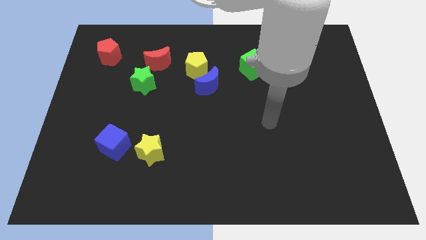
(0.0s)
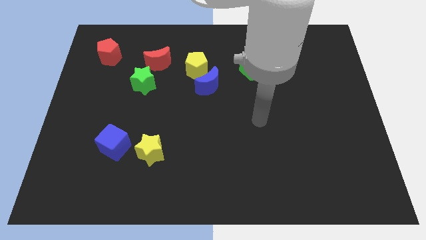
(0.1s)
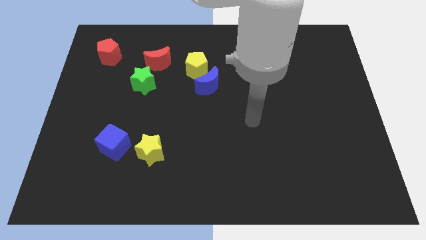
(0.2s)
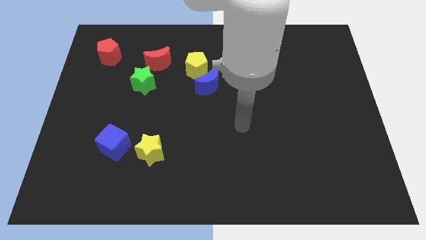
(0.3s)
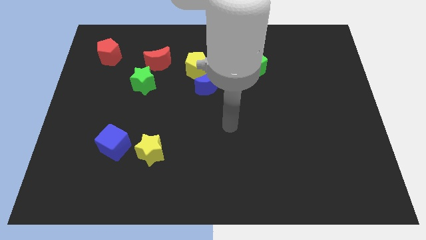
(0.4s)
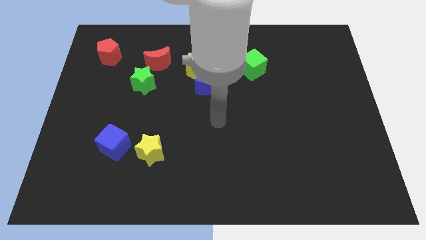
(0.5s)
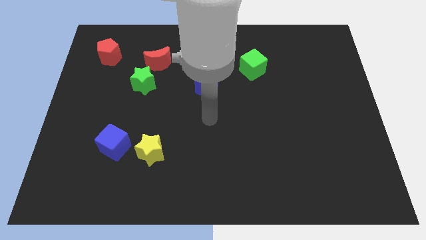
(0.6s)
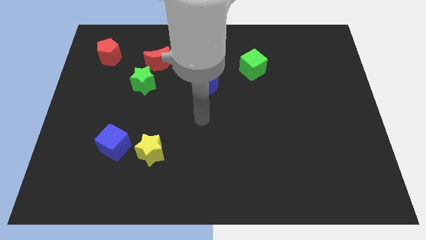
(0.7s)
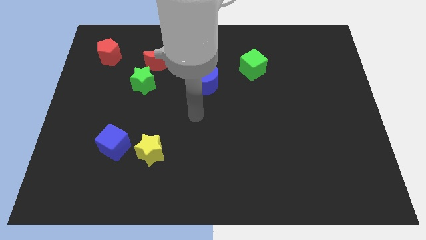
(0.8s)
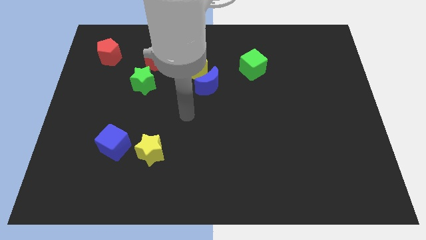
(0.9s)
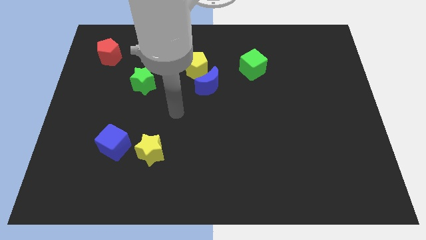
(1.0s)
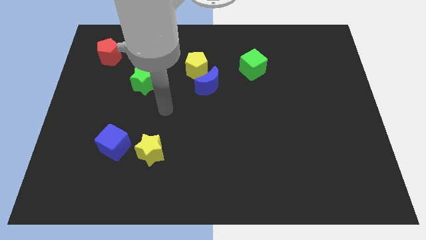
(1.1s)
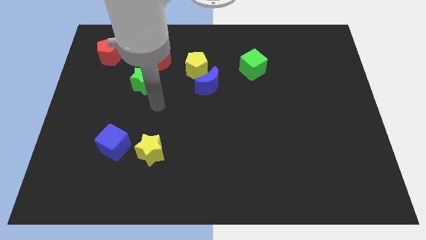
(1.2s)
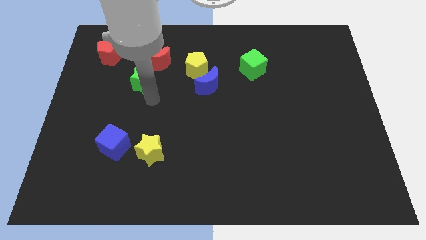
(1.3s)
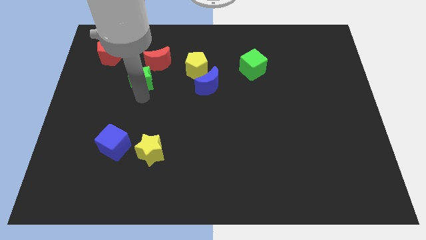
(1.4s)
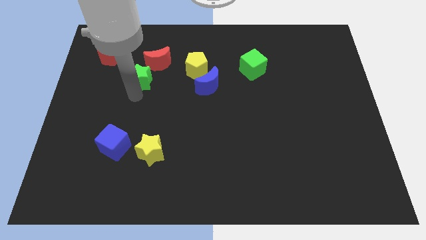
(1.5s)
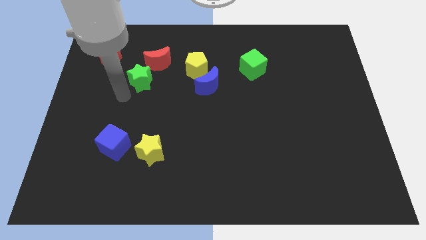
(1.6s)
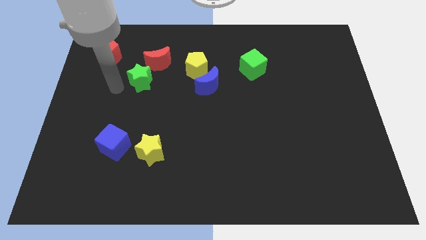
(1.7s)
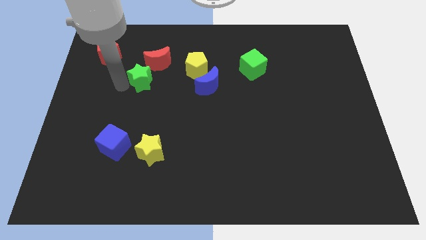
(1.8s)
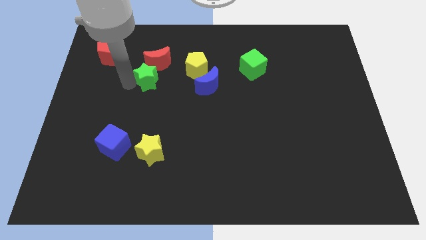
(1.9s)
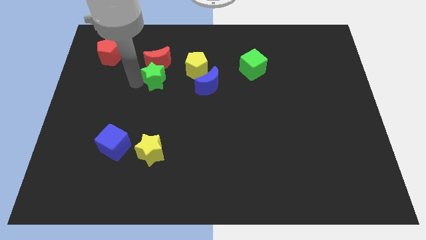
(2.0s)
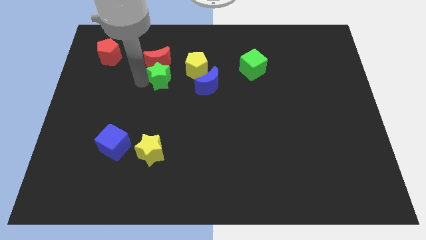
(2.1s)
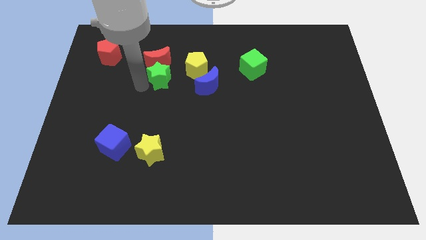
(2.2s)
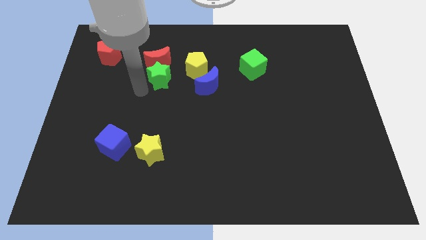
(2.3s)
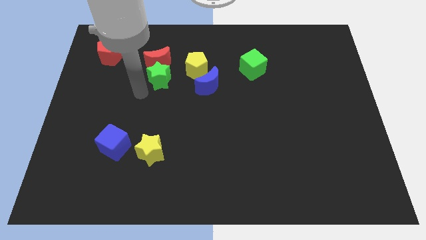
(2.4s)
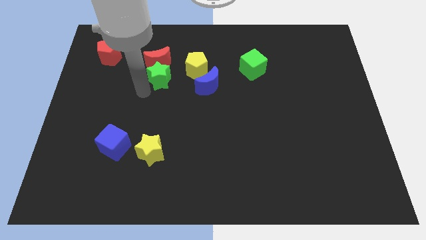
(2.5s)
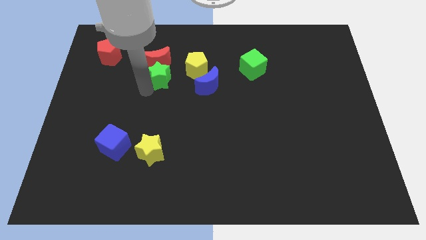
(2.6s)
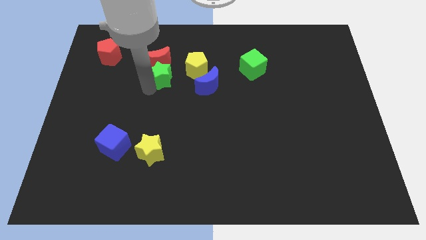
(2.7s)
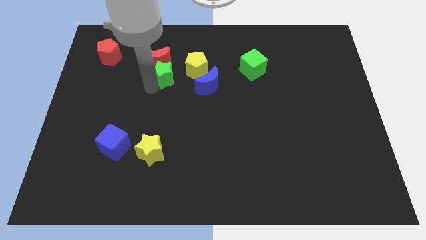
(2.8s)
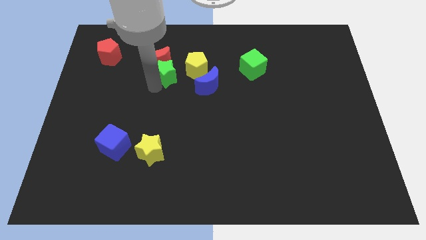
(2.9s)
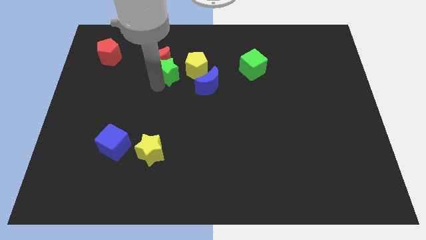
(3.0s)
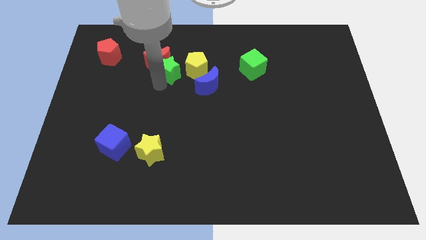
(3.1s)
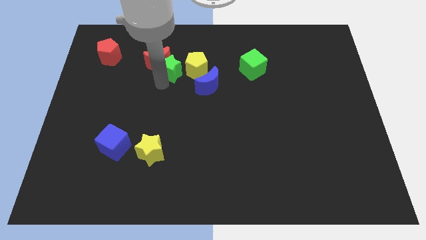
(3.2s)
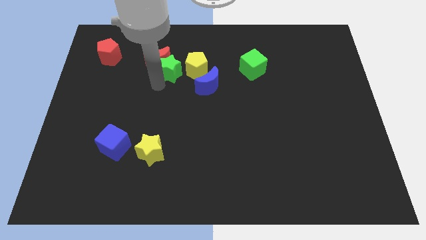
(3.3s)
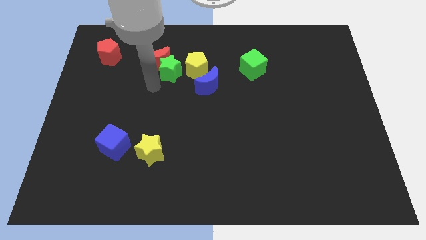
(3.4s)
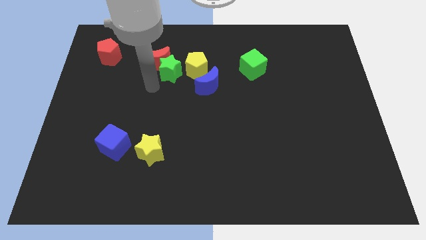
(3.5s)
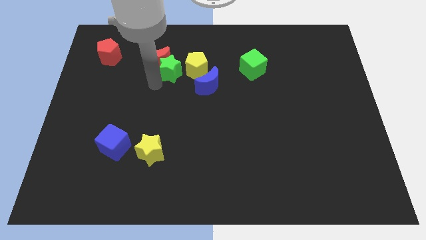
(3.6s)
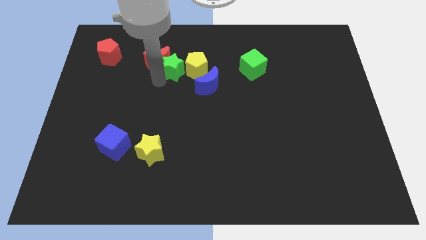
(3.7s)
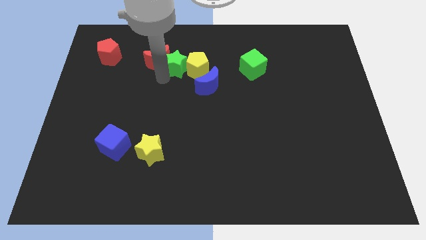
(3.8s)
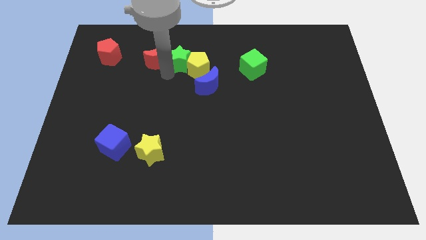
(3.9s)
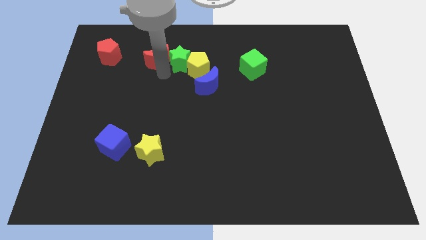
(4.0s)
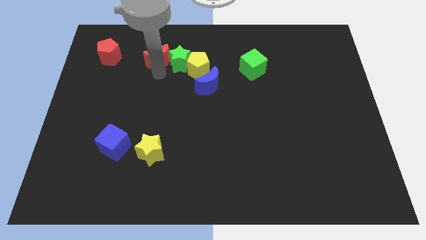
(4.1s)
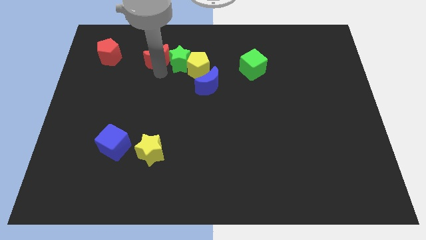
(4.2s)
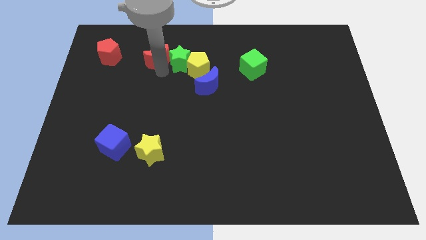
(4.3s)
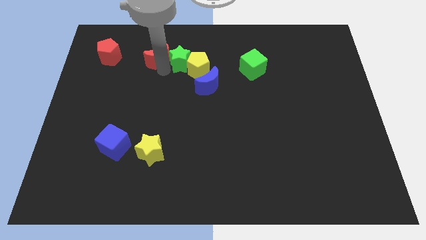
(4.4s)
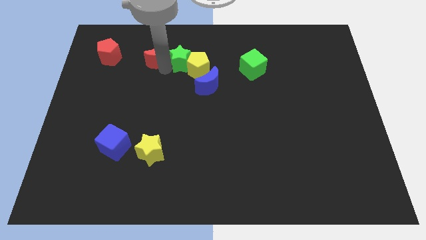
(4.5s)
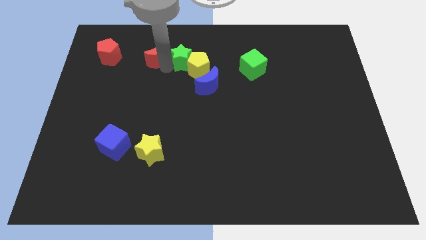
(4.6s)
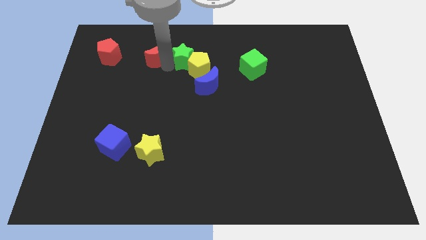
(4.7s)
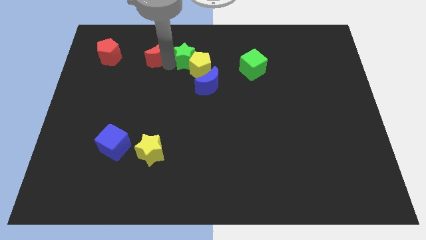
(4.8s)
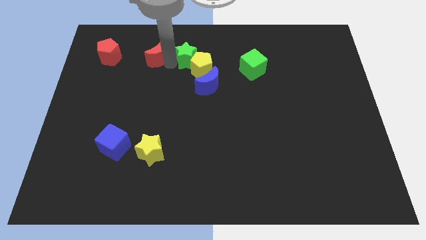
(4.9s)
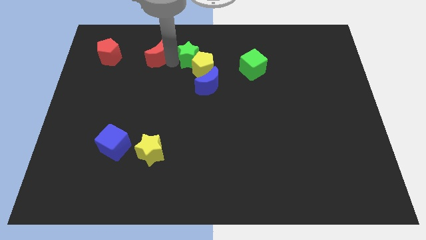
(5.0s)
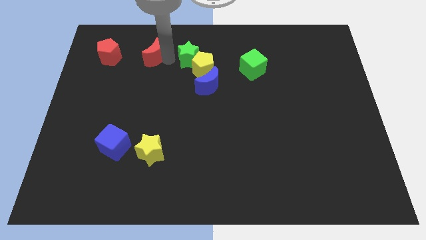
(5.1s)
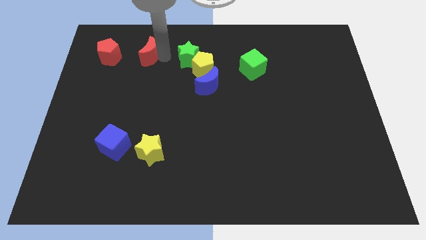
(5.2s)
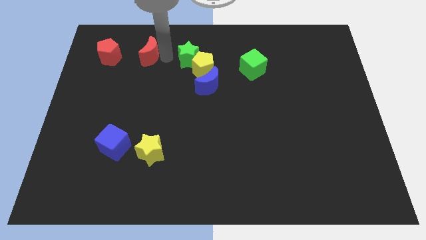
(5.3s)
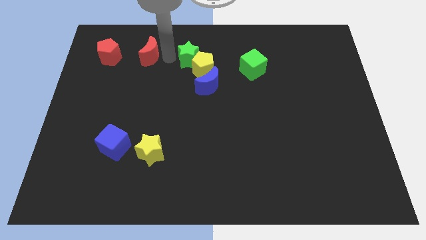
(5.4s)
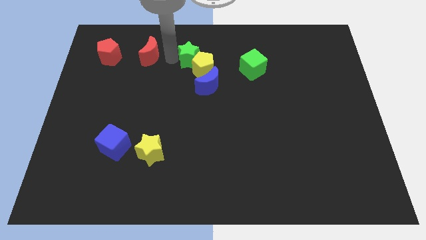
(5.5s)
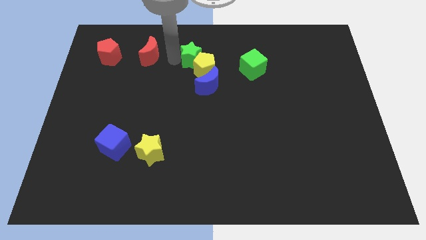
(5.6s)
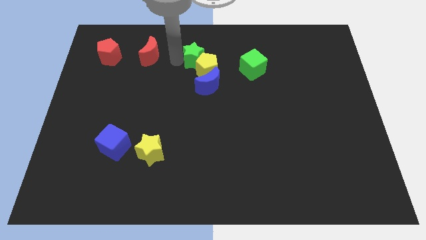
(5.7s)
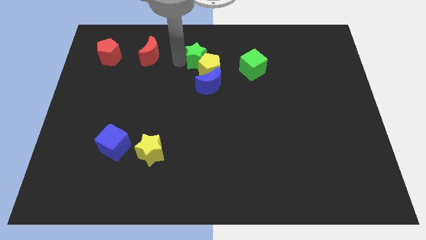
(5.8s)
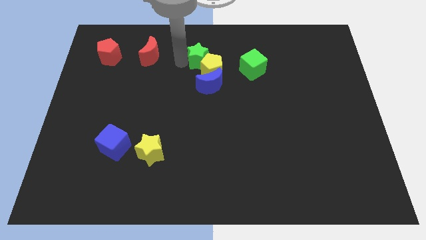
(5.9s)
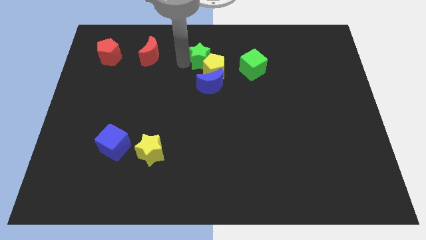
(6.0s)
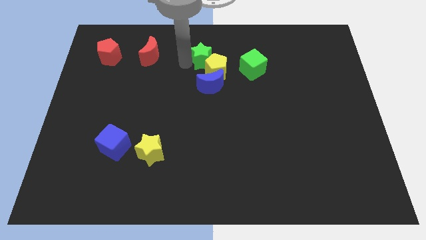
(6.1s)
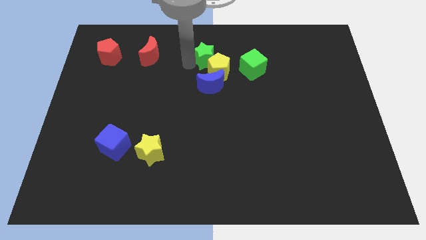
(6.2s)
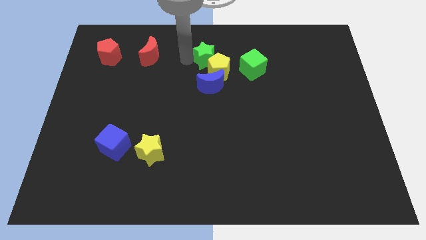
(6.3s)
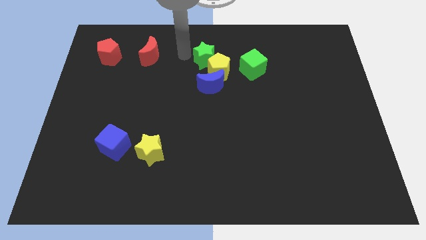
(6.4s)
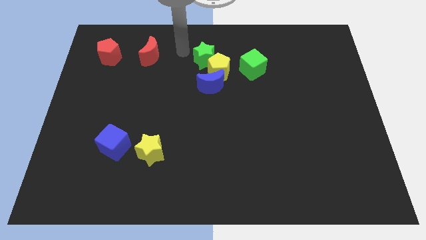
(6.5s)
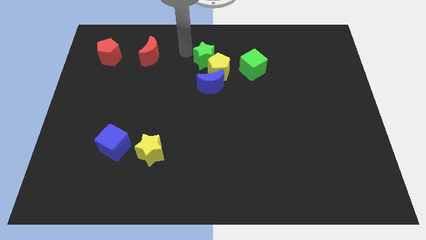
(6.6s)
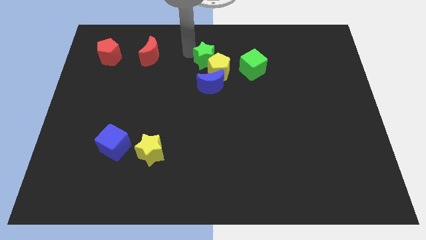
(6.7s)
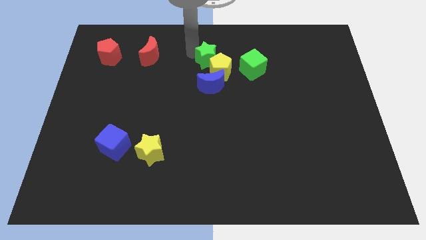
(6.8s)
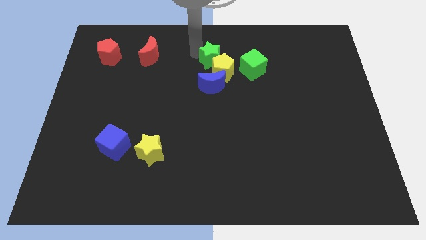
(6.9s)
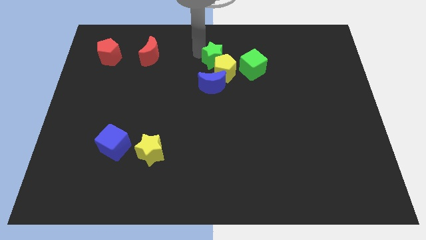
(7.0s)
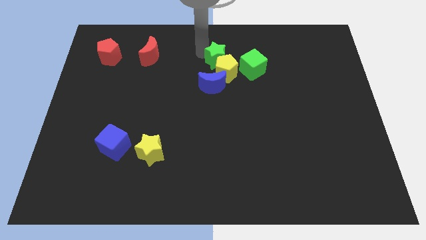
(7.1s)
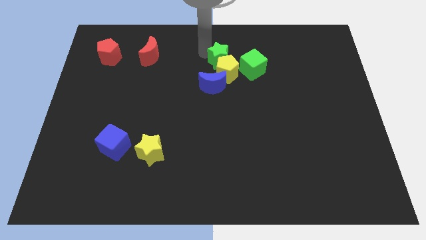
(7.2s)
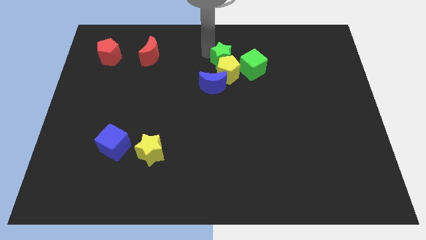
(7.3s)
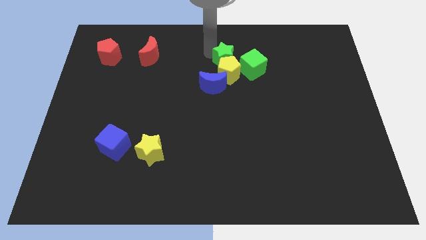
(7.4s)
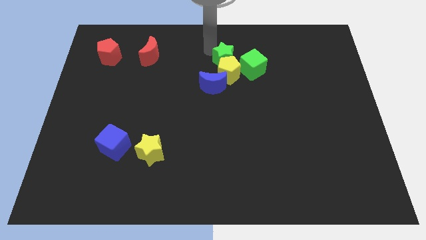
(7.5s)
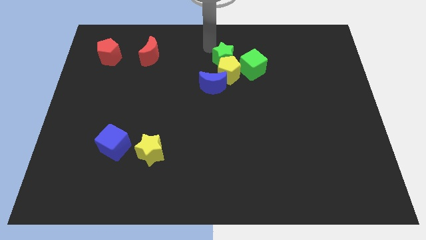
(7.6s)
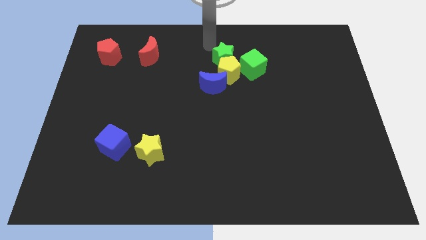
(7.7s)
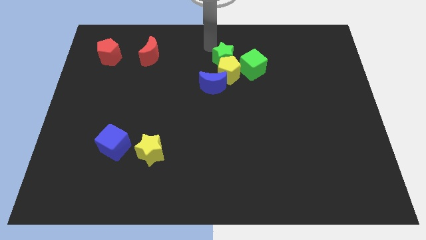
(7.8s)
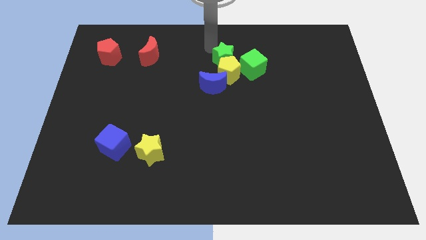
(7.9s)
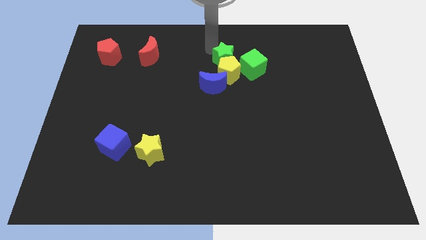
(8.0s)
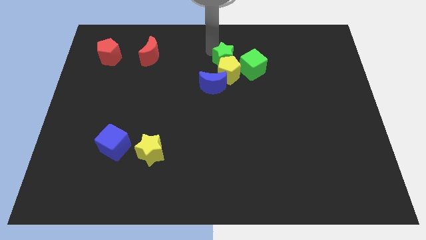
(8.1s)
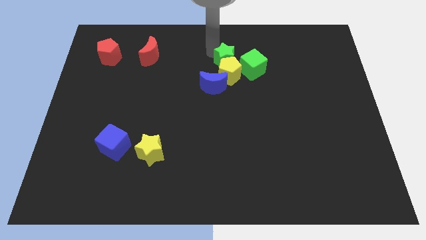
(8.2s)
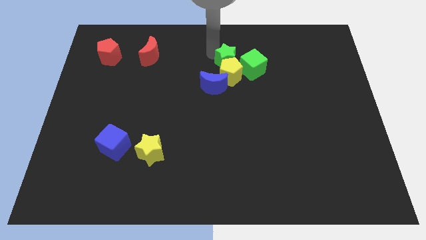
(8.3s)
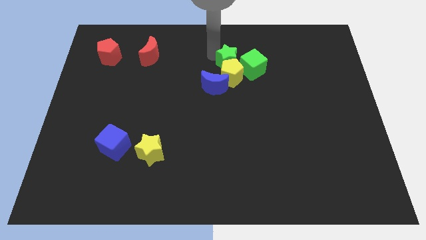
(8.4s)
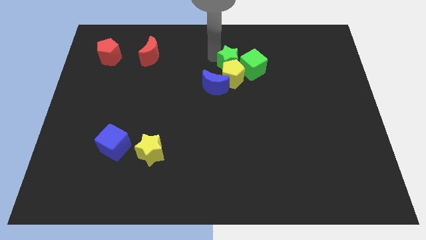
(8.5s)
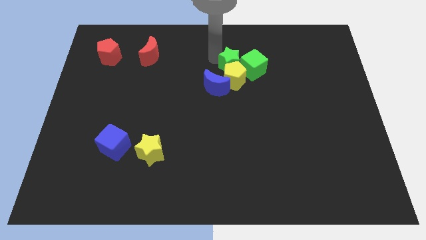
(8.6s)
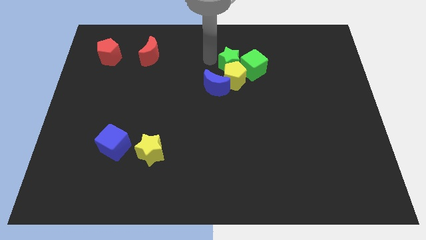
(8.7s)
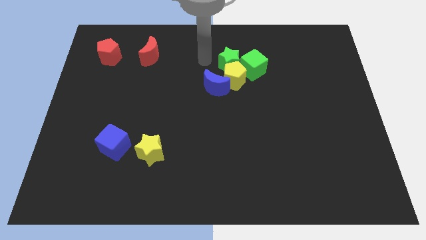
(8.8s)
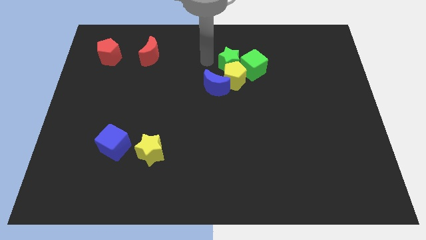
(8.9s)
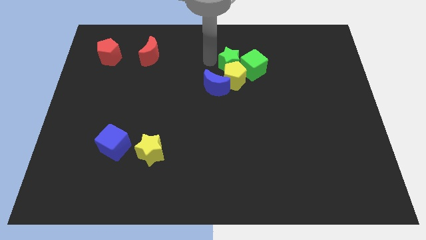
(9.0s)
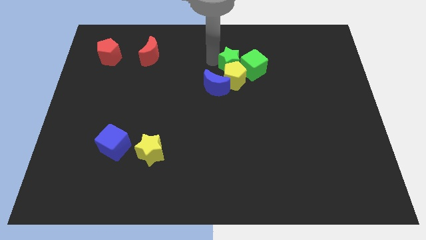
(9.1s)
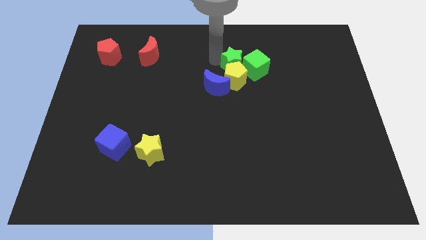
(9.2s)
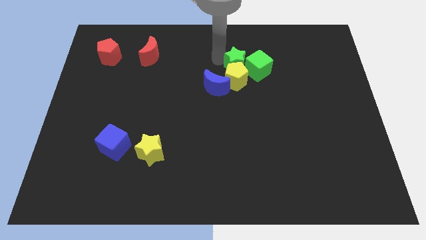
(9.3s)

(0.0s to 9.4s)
slide the green star towards the green cube
